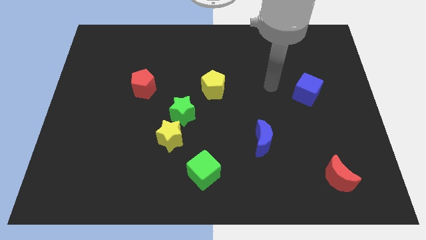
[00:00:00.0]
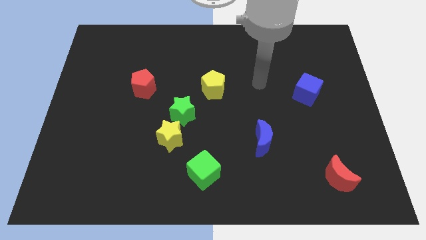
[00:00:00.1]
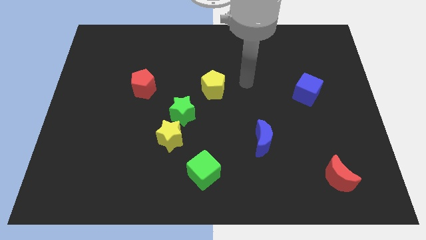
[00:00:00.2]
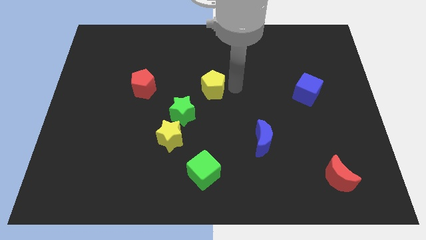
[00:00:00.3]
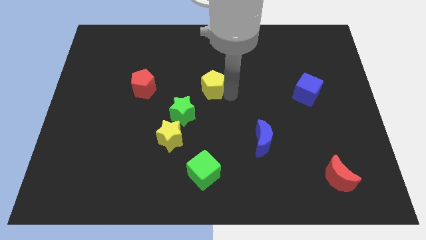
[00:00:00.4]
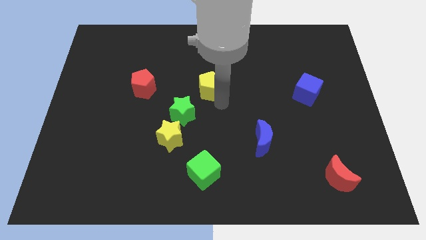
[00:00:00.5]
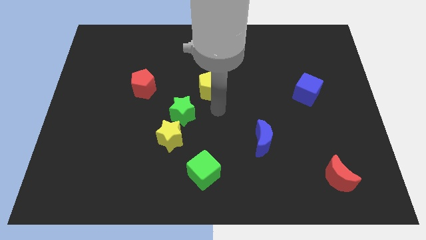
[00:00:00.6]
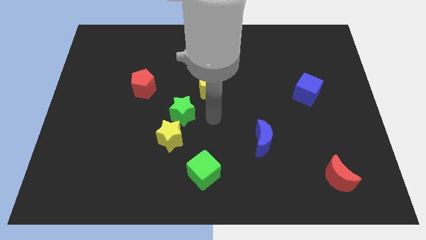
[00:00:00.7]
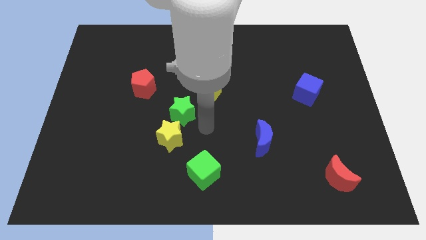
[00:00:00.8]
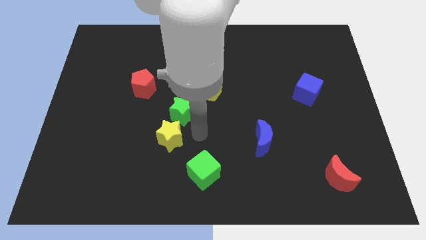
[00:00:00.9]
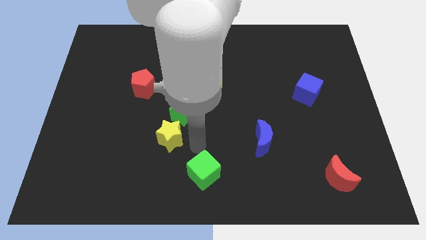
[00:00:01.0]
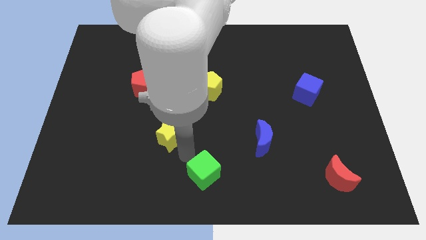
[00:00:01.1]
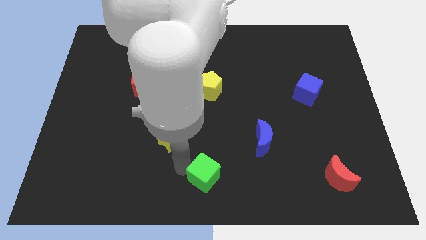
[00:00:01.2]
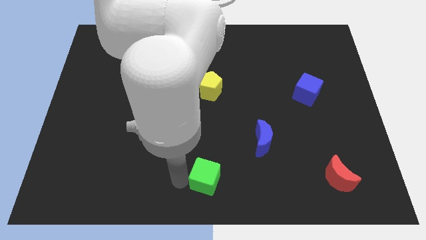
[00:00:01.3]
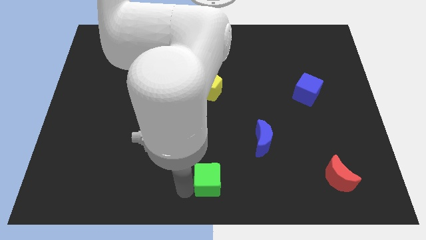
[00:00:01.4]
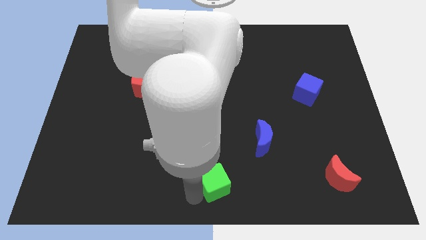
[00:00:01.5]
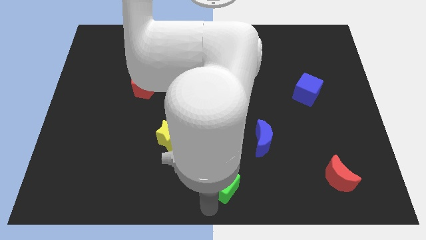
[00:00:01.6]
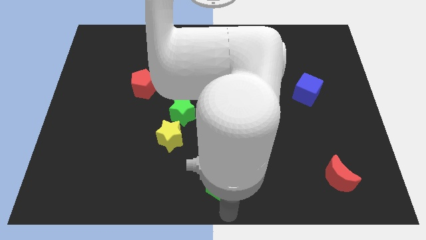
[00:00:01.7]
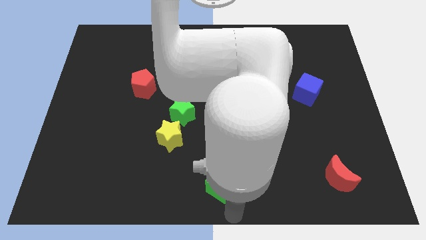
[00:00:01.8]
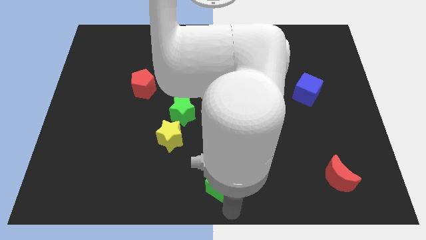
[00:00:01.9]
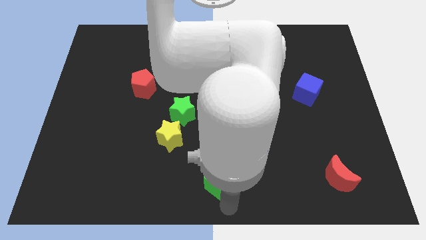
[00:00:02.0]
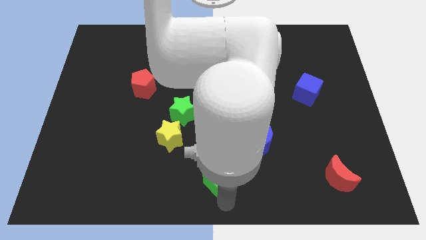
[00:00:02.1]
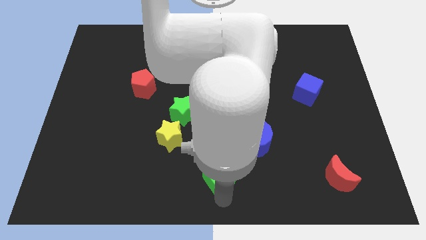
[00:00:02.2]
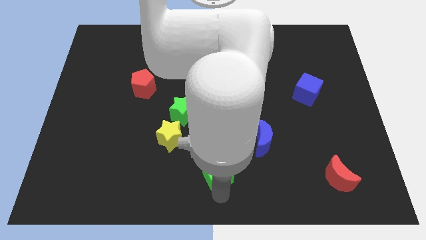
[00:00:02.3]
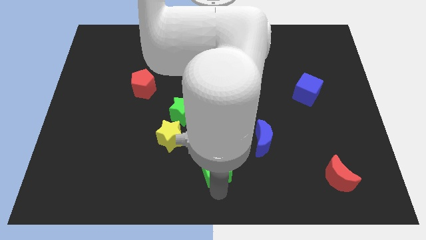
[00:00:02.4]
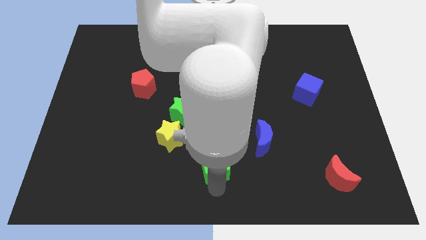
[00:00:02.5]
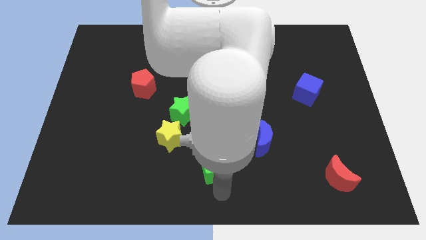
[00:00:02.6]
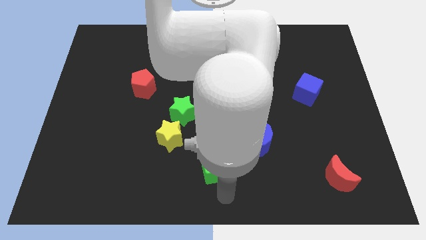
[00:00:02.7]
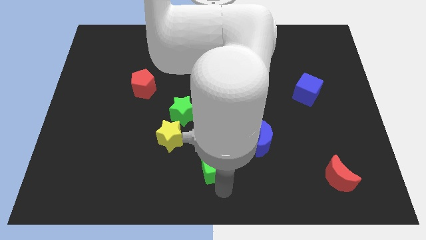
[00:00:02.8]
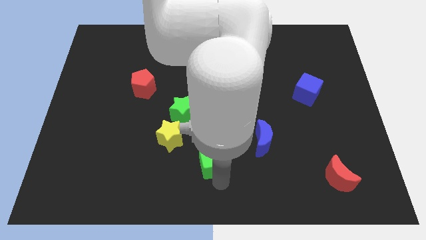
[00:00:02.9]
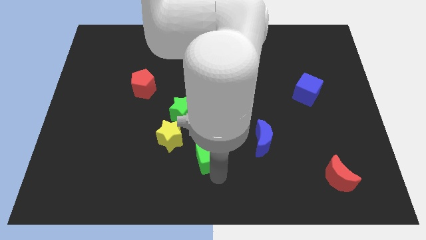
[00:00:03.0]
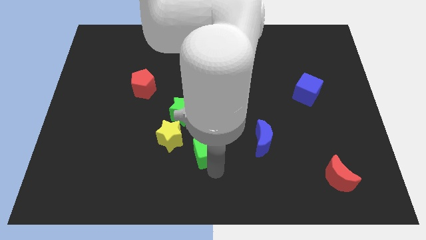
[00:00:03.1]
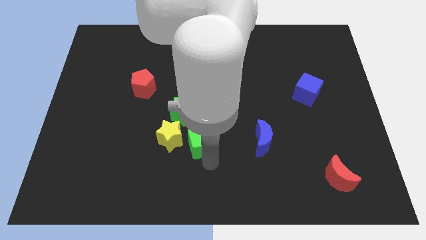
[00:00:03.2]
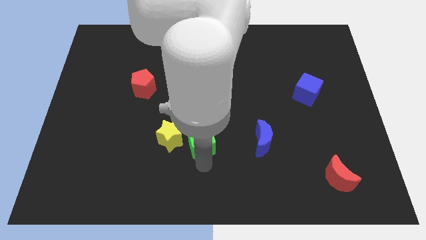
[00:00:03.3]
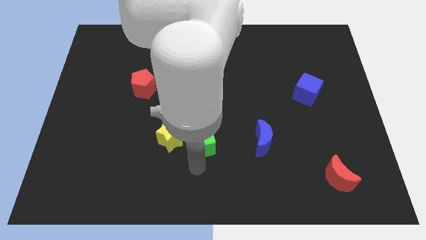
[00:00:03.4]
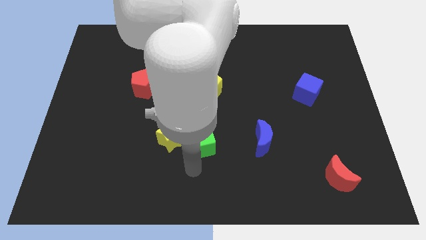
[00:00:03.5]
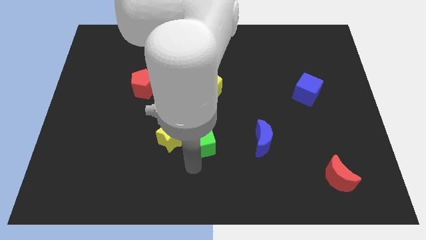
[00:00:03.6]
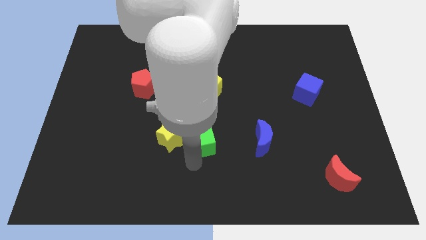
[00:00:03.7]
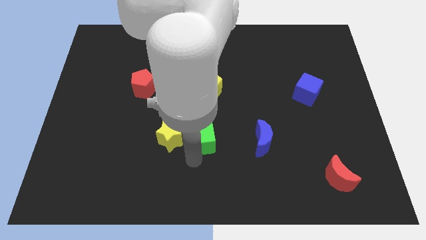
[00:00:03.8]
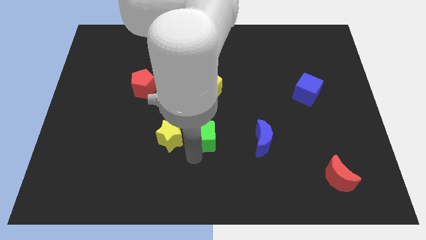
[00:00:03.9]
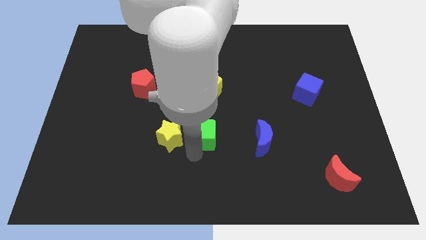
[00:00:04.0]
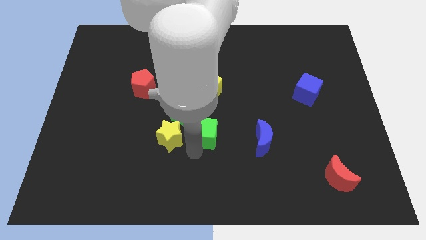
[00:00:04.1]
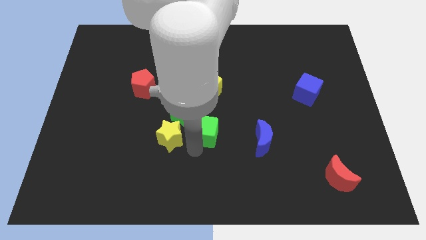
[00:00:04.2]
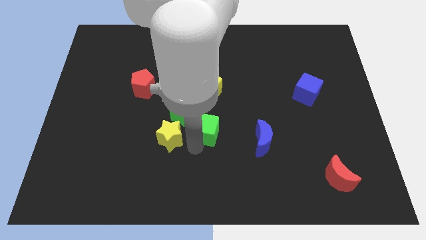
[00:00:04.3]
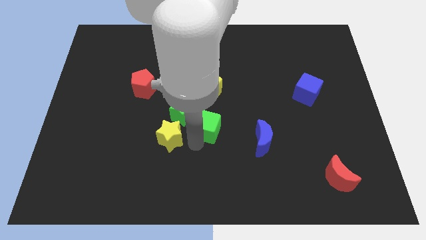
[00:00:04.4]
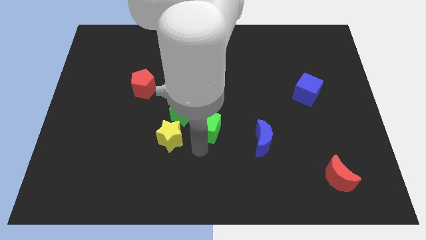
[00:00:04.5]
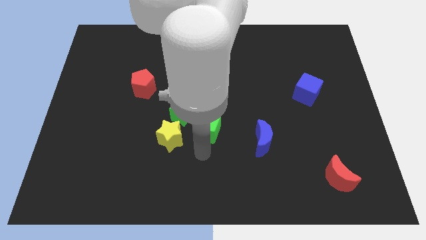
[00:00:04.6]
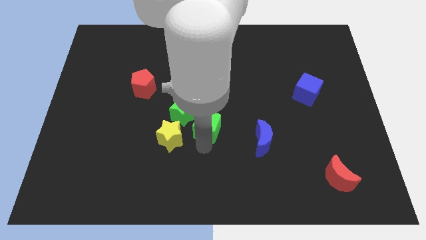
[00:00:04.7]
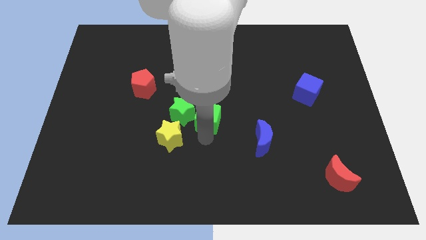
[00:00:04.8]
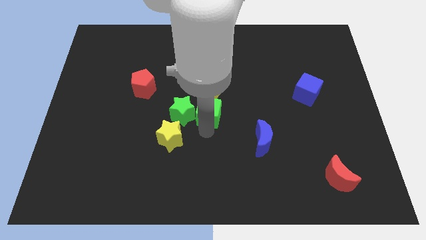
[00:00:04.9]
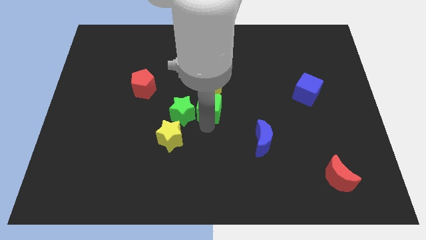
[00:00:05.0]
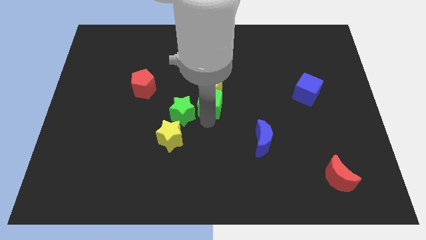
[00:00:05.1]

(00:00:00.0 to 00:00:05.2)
slide the green cube close to the yellow pentagon

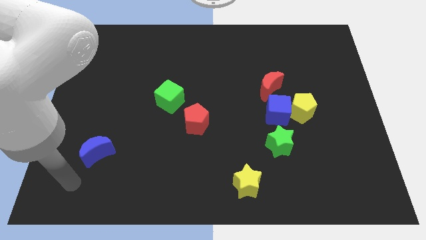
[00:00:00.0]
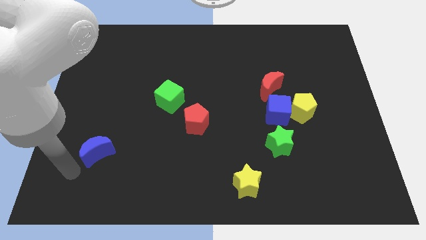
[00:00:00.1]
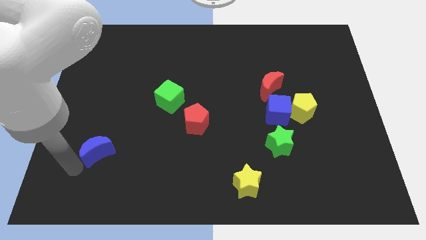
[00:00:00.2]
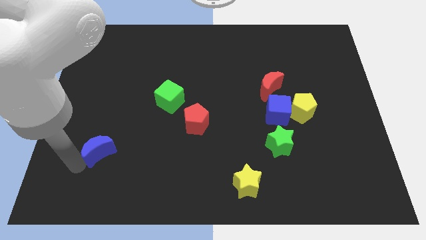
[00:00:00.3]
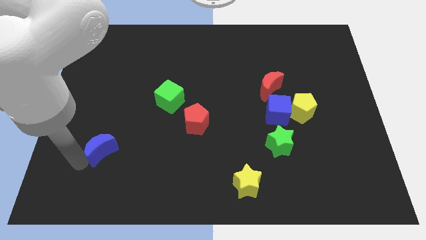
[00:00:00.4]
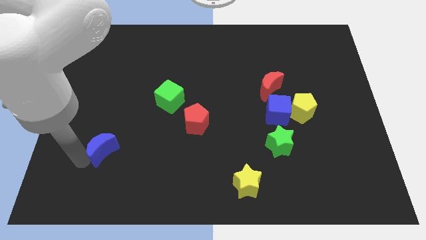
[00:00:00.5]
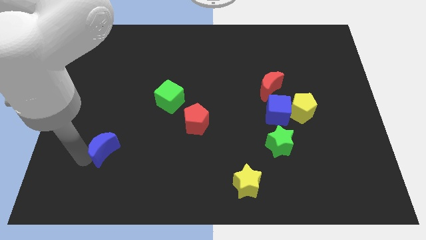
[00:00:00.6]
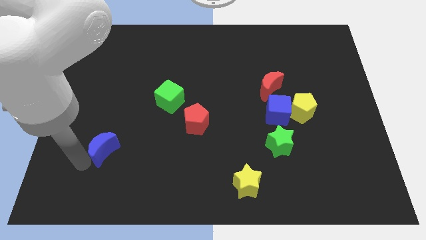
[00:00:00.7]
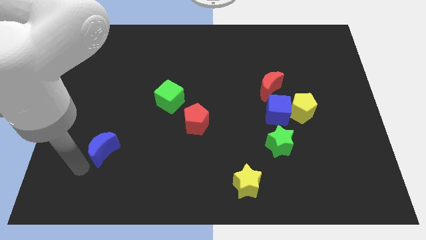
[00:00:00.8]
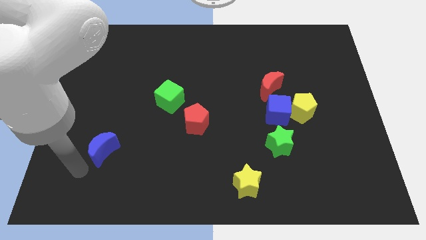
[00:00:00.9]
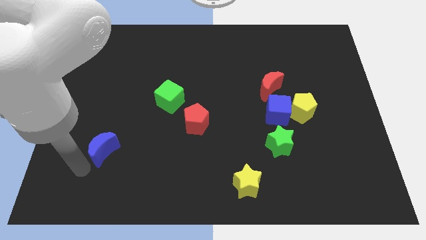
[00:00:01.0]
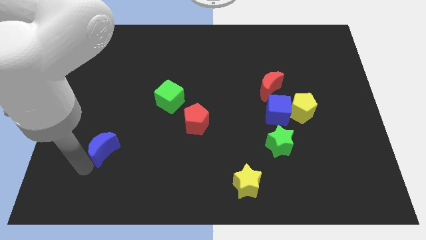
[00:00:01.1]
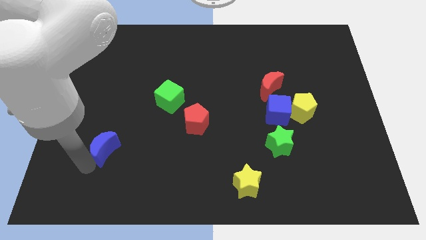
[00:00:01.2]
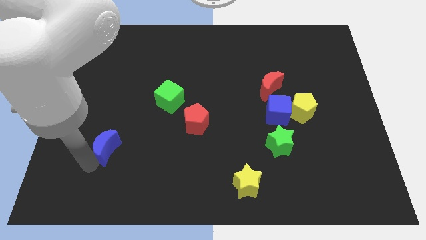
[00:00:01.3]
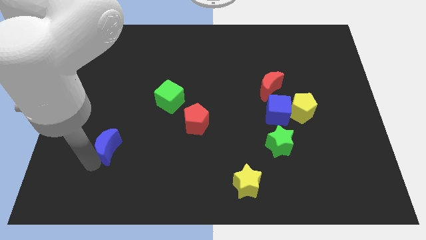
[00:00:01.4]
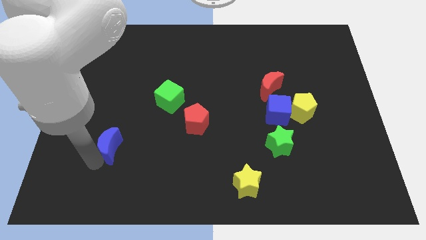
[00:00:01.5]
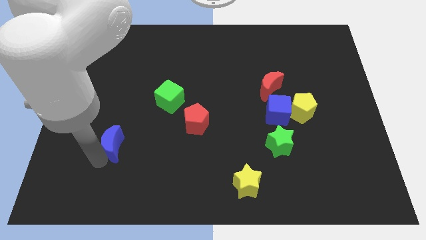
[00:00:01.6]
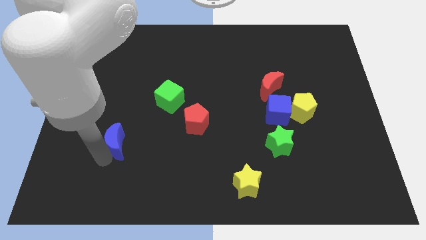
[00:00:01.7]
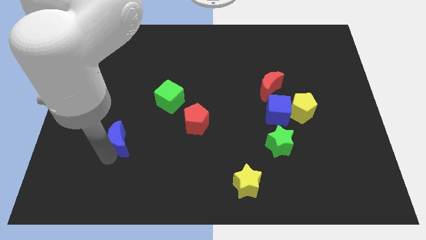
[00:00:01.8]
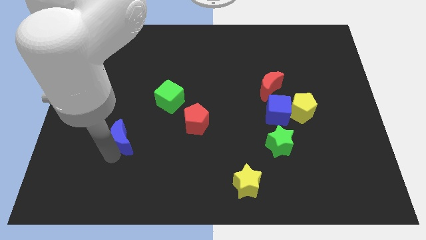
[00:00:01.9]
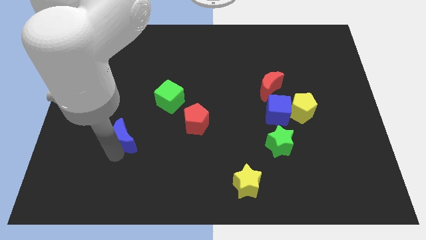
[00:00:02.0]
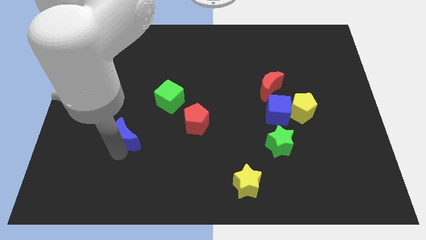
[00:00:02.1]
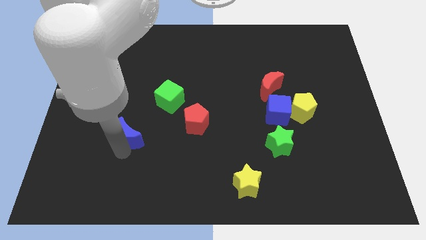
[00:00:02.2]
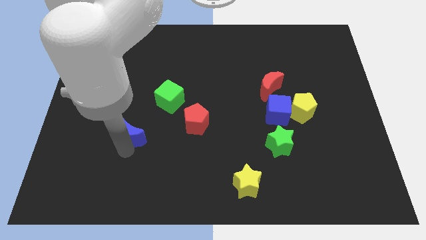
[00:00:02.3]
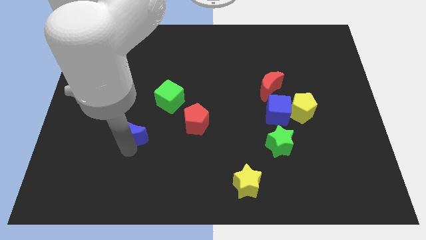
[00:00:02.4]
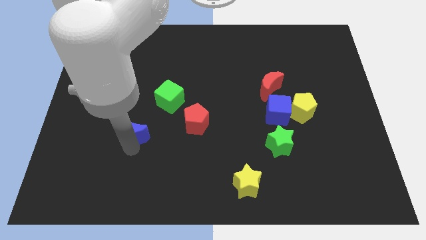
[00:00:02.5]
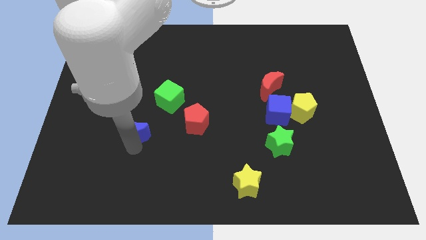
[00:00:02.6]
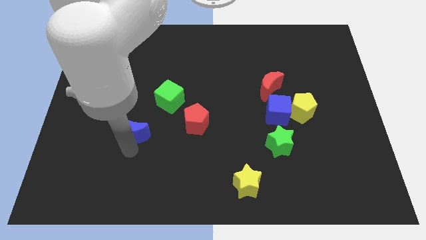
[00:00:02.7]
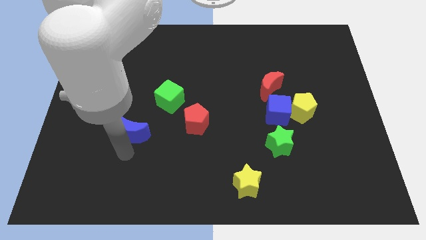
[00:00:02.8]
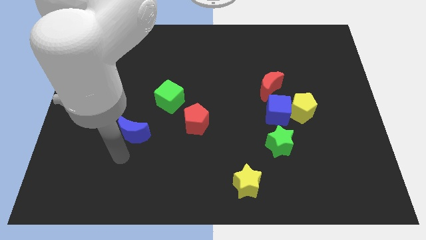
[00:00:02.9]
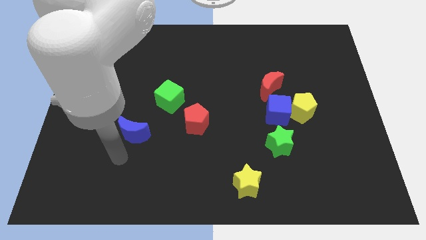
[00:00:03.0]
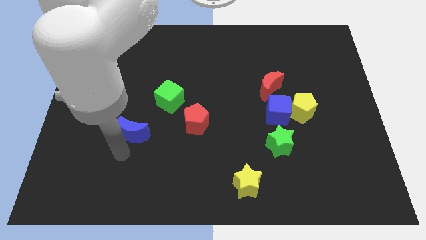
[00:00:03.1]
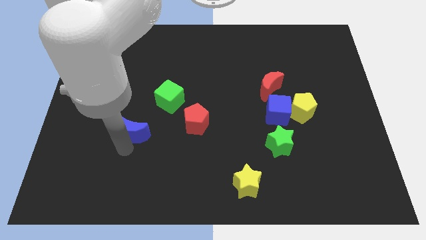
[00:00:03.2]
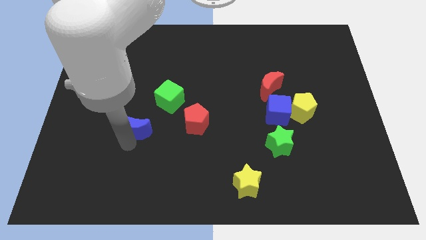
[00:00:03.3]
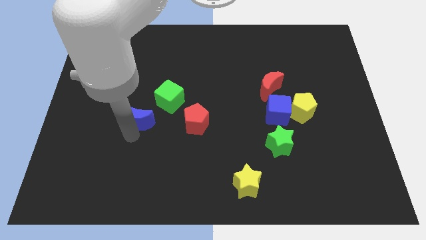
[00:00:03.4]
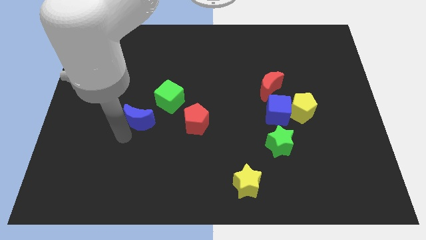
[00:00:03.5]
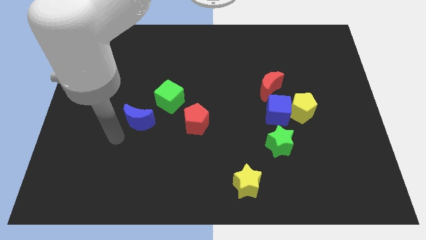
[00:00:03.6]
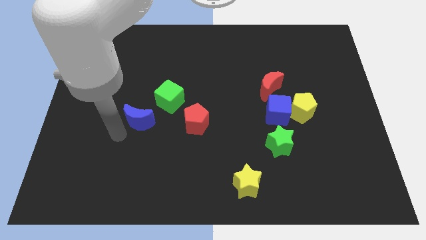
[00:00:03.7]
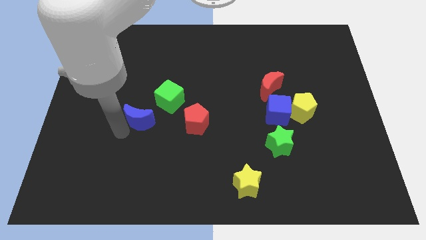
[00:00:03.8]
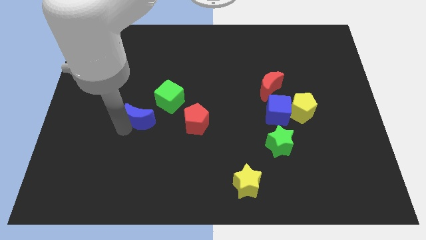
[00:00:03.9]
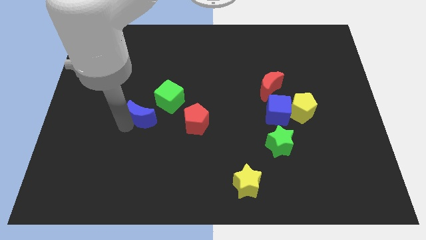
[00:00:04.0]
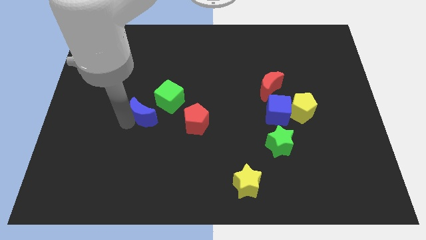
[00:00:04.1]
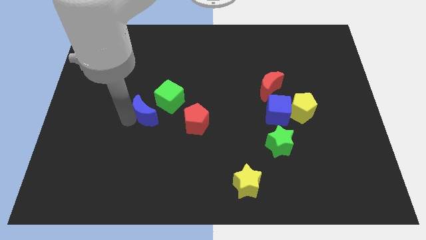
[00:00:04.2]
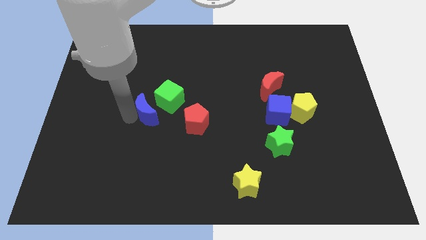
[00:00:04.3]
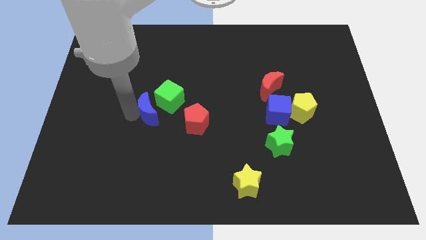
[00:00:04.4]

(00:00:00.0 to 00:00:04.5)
slide the blue moon to the green cube
